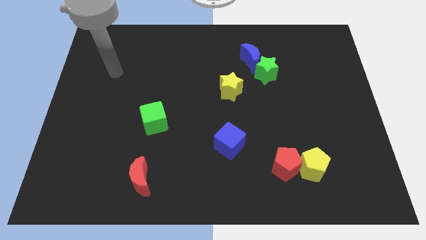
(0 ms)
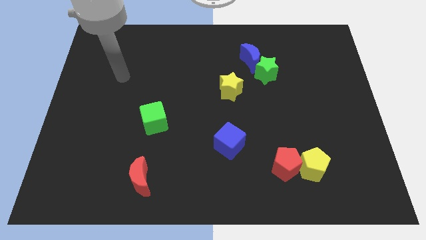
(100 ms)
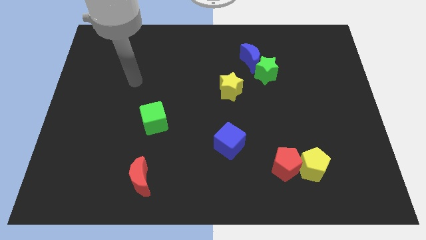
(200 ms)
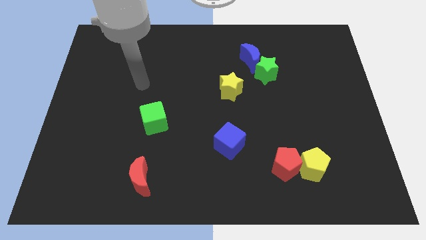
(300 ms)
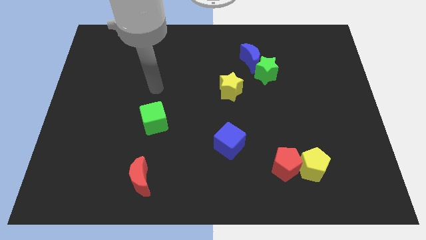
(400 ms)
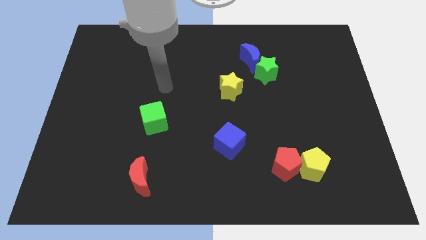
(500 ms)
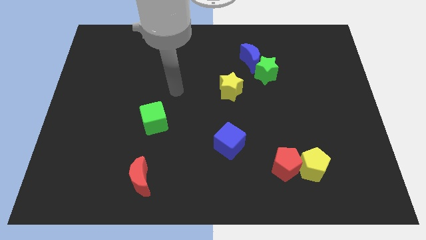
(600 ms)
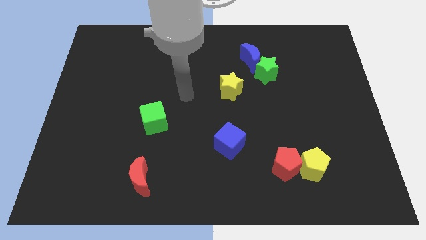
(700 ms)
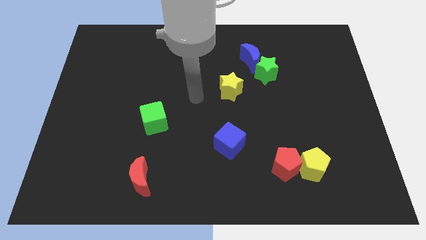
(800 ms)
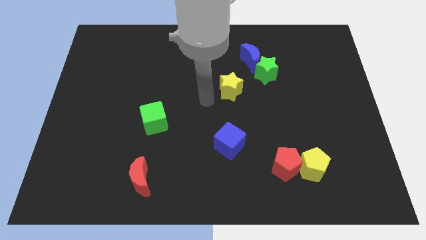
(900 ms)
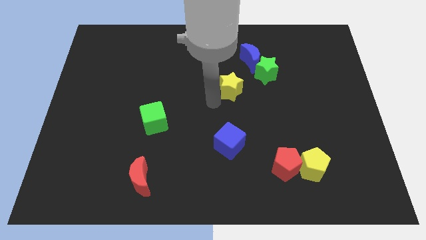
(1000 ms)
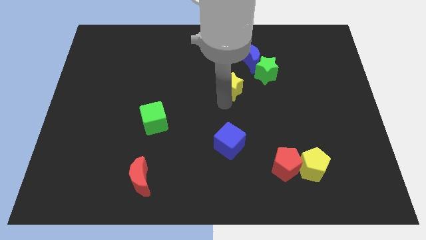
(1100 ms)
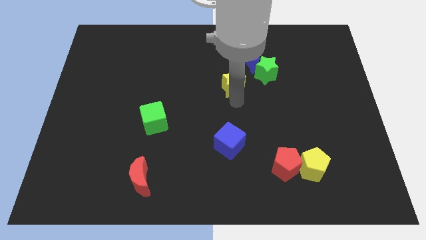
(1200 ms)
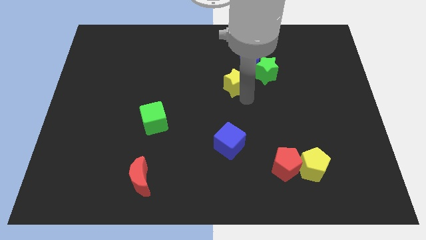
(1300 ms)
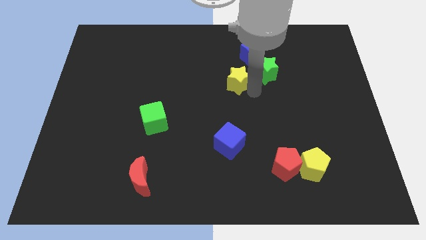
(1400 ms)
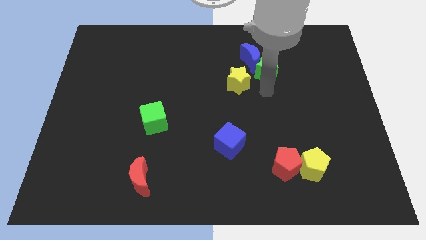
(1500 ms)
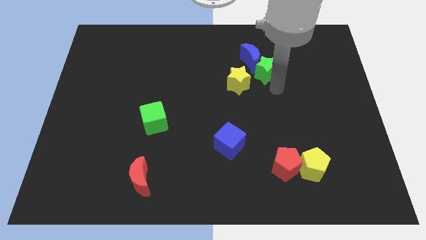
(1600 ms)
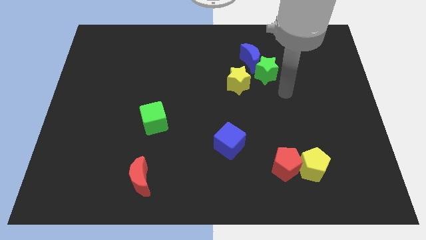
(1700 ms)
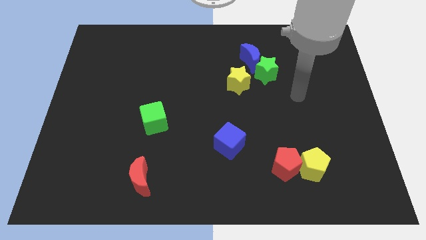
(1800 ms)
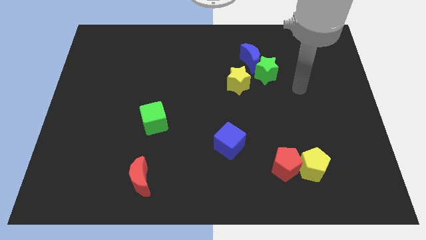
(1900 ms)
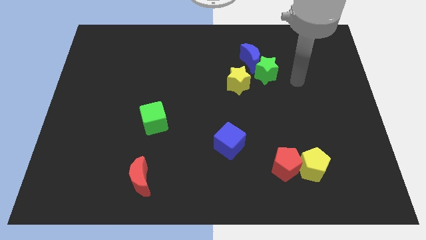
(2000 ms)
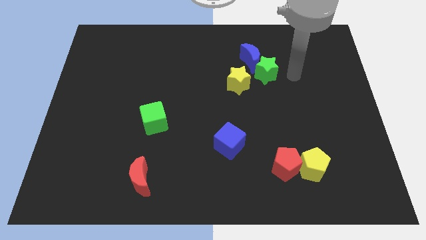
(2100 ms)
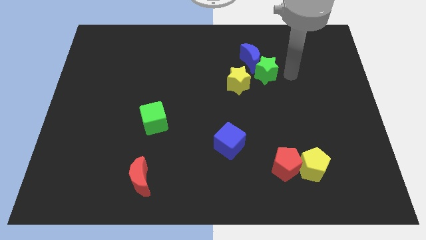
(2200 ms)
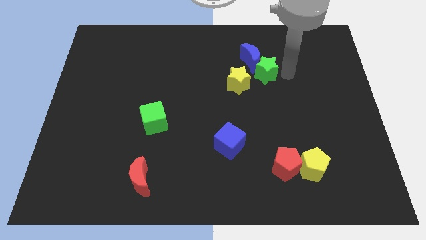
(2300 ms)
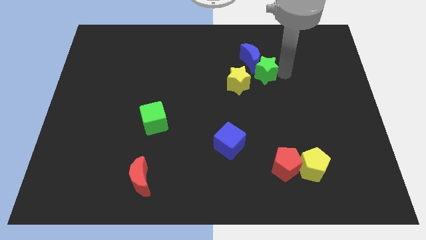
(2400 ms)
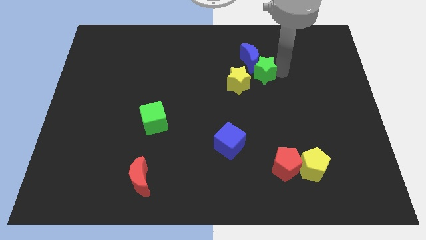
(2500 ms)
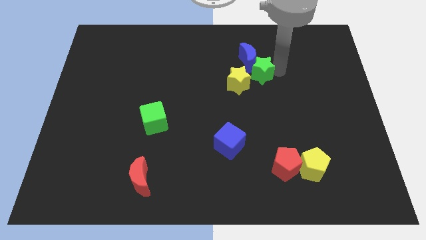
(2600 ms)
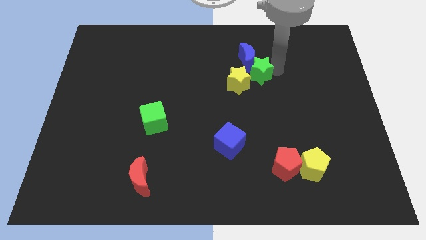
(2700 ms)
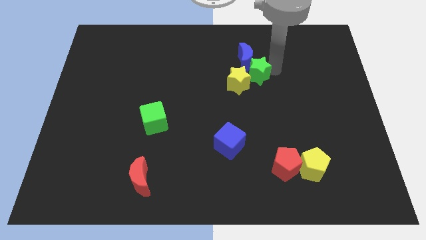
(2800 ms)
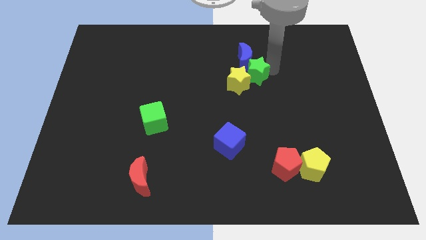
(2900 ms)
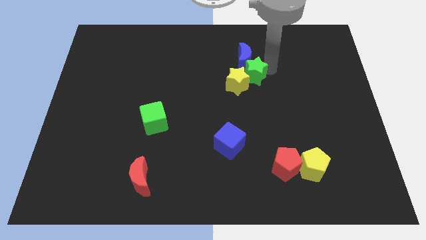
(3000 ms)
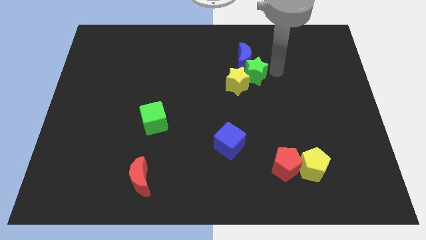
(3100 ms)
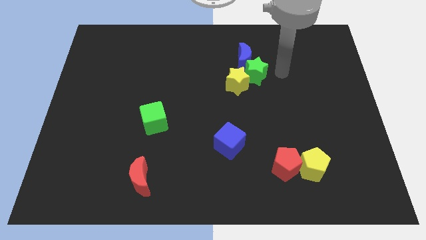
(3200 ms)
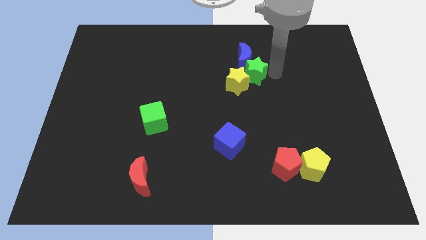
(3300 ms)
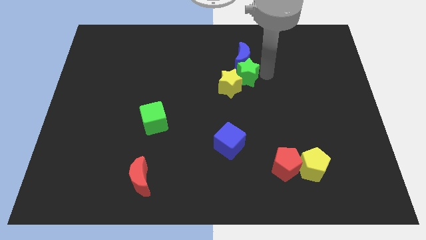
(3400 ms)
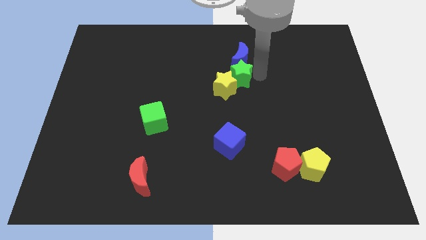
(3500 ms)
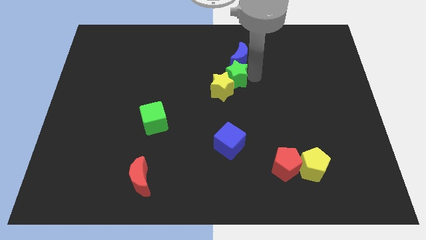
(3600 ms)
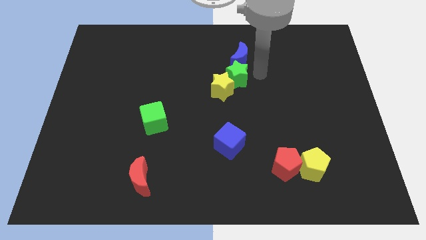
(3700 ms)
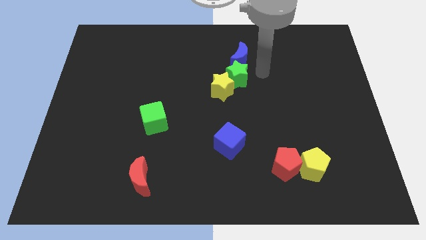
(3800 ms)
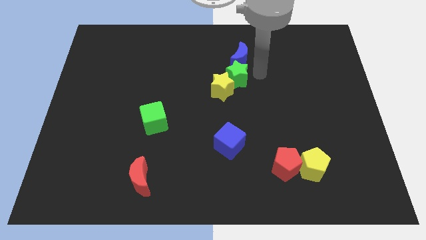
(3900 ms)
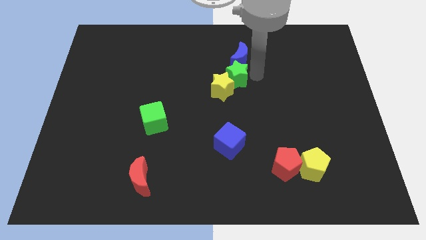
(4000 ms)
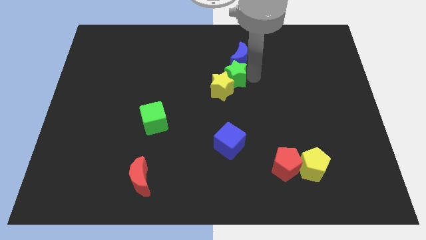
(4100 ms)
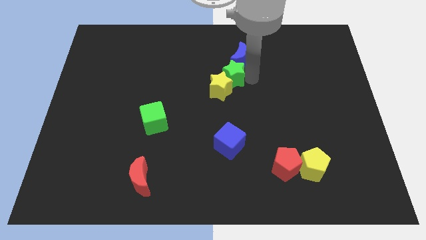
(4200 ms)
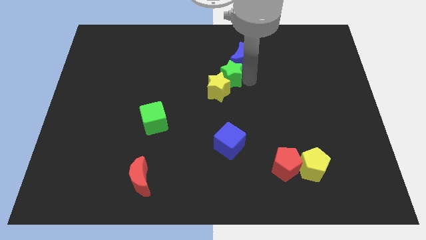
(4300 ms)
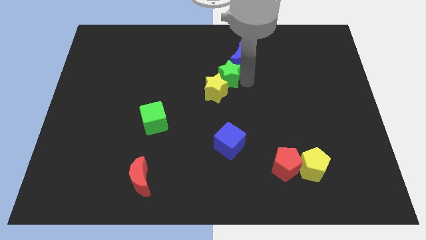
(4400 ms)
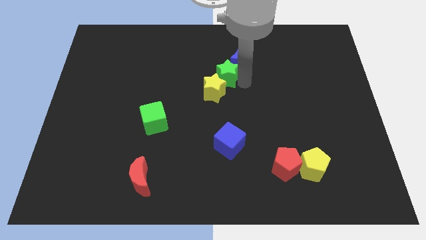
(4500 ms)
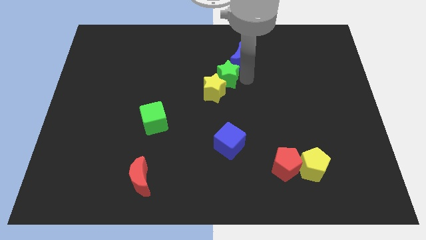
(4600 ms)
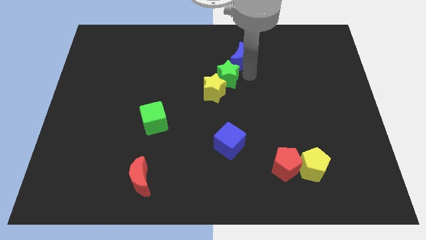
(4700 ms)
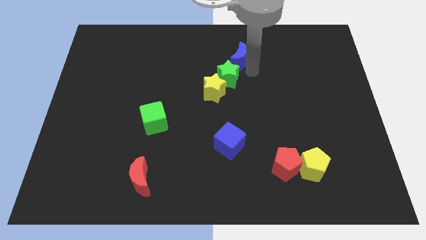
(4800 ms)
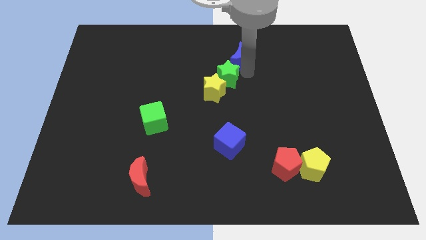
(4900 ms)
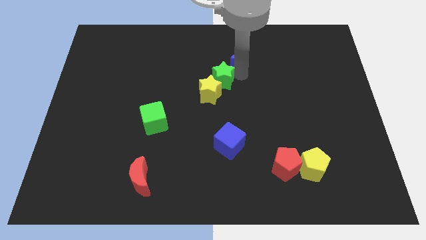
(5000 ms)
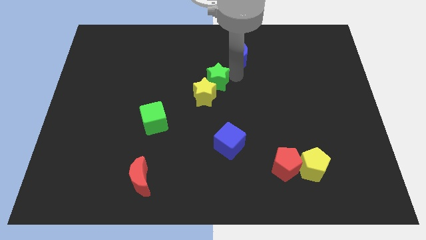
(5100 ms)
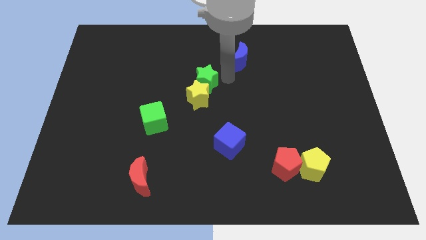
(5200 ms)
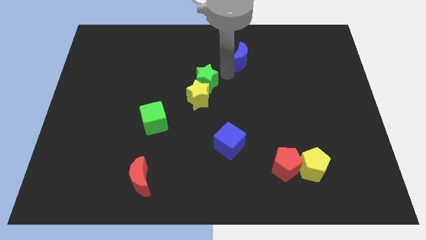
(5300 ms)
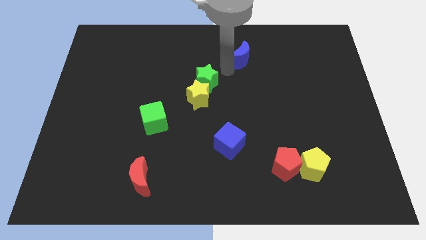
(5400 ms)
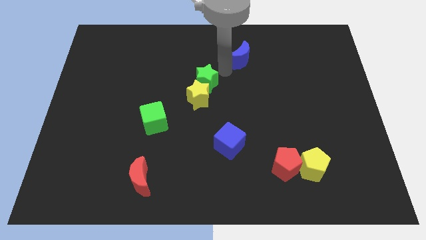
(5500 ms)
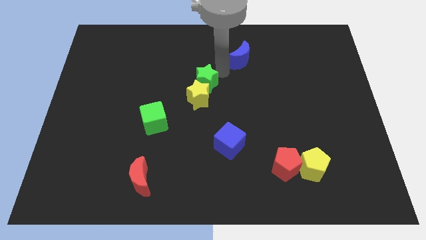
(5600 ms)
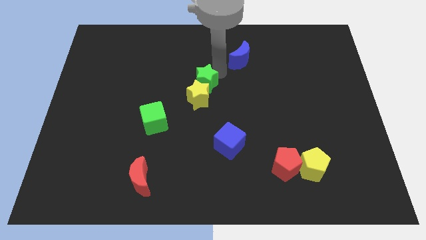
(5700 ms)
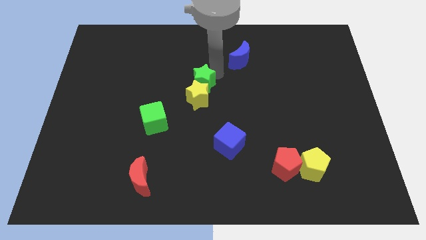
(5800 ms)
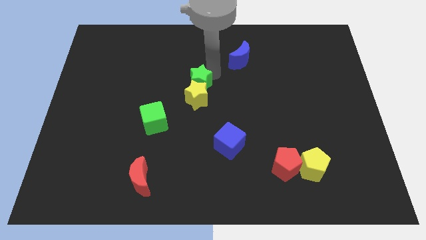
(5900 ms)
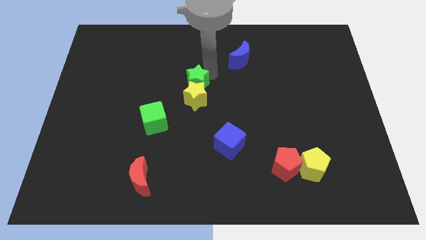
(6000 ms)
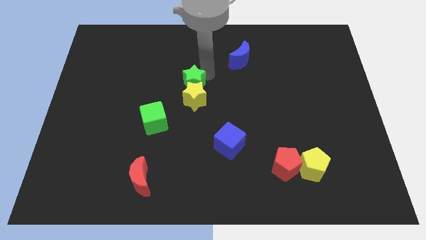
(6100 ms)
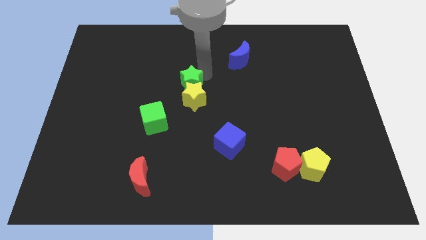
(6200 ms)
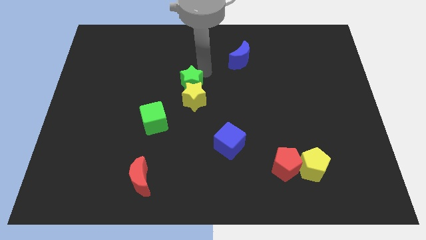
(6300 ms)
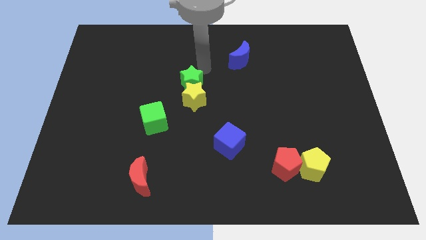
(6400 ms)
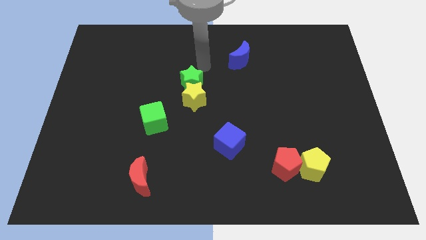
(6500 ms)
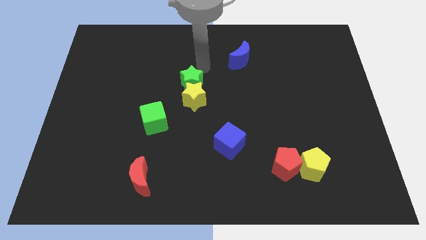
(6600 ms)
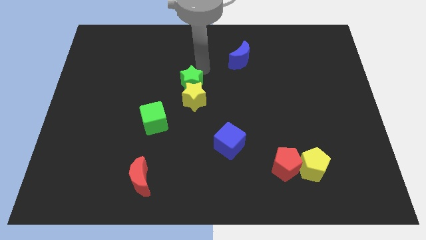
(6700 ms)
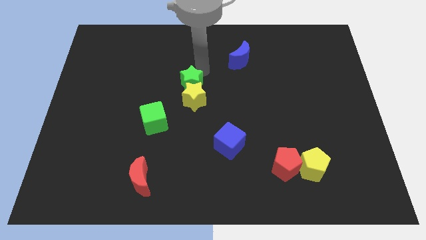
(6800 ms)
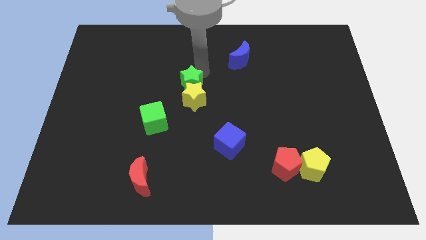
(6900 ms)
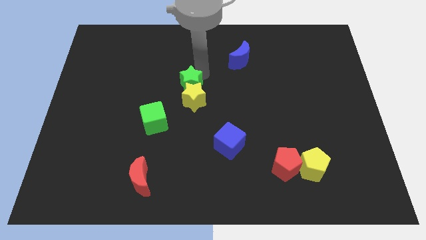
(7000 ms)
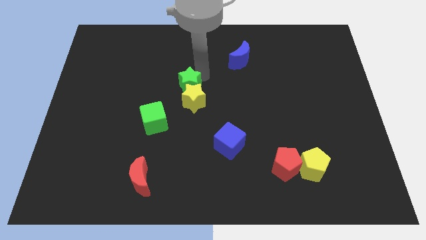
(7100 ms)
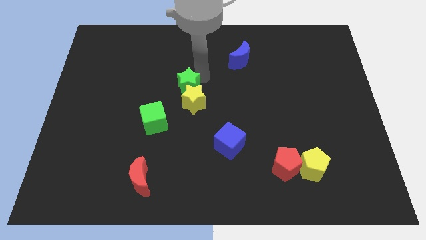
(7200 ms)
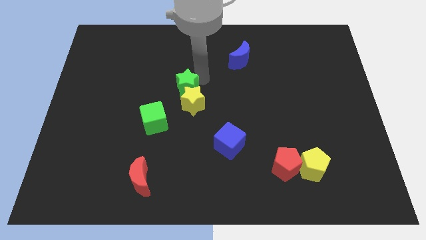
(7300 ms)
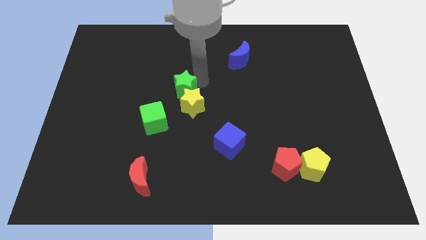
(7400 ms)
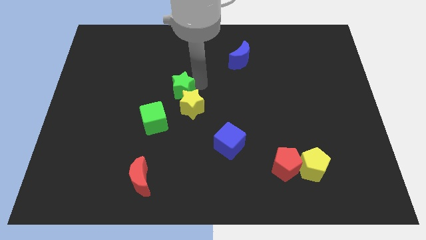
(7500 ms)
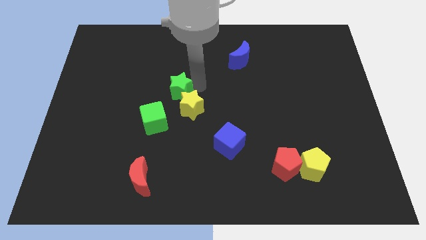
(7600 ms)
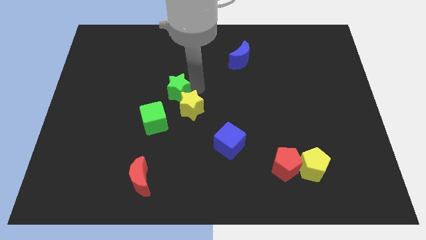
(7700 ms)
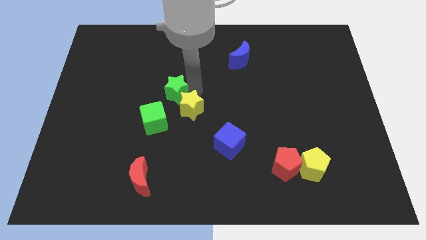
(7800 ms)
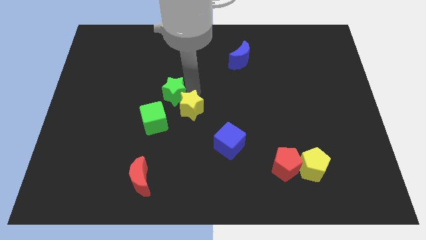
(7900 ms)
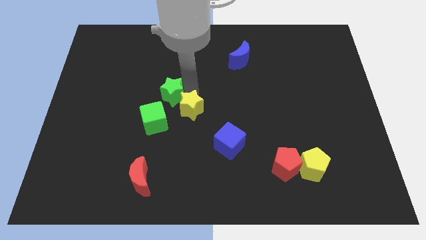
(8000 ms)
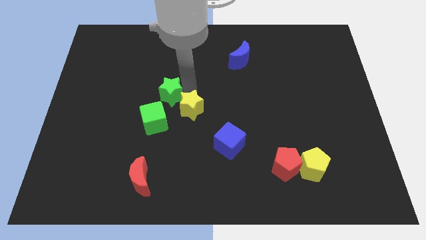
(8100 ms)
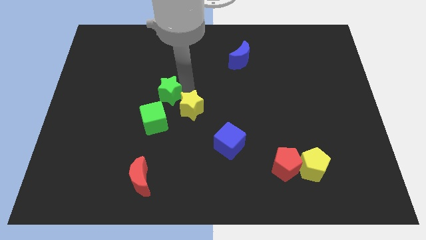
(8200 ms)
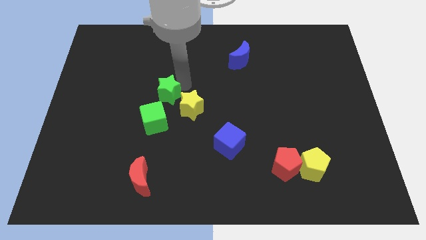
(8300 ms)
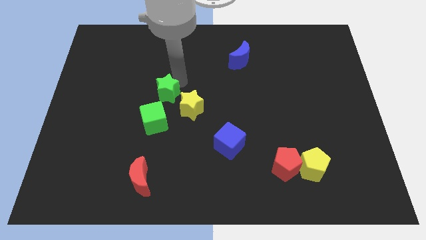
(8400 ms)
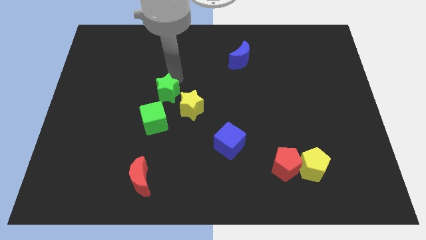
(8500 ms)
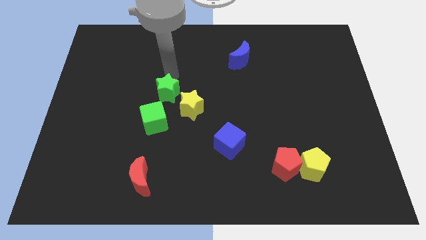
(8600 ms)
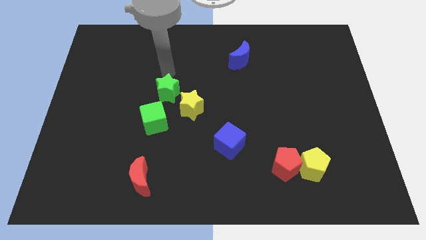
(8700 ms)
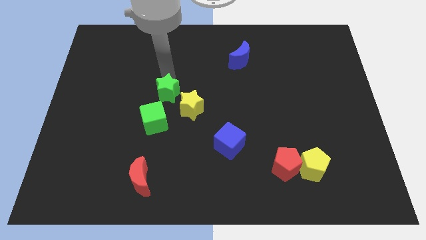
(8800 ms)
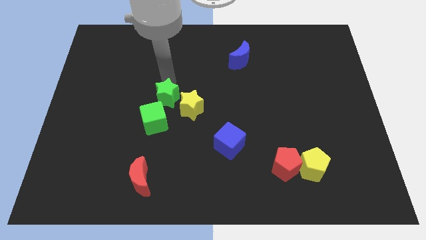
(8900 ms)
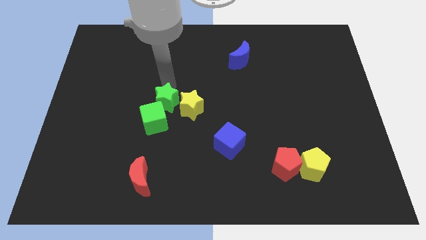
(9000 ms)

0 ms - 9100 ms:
slide the green star close to the green cube
